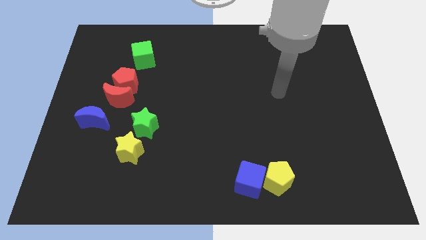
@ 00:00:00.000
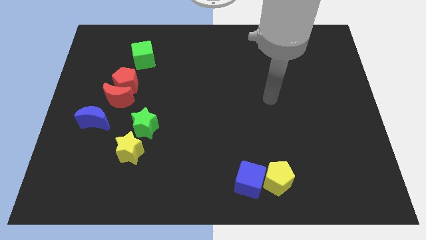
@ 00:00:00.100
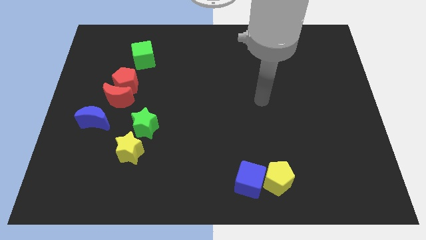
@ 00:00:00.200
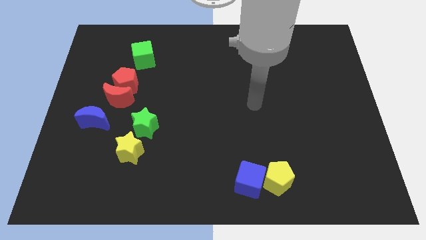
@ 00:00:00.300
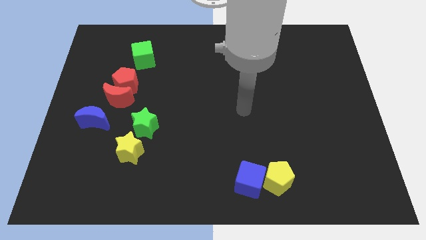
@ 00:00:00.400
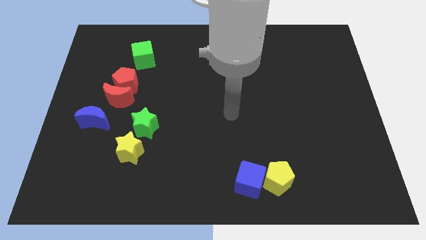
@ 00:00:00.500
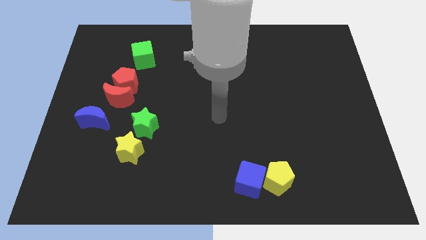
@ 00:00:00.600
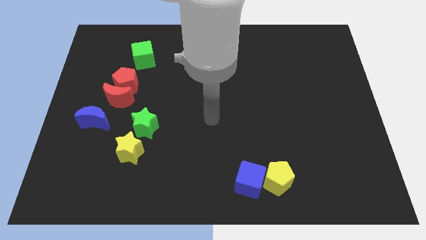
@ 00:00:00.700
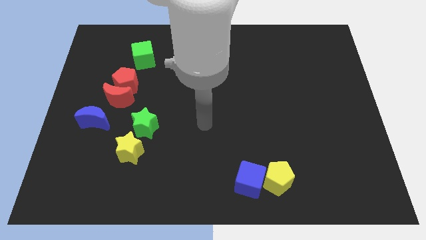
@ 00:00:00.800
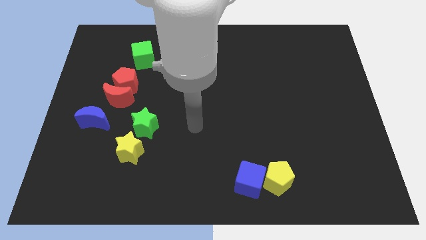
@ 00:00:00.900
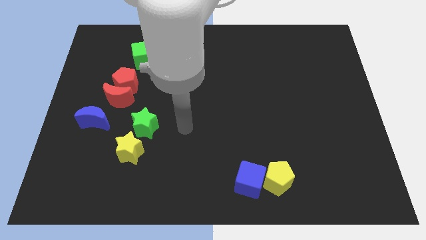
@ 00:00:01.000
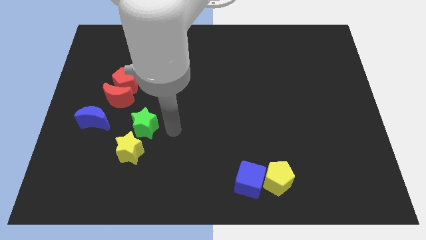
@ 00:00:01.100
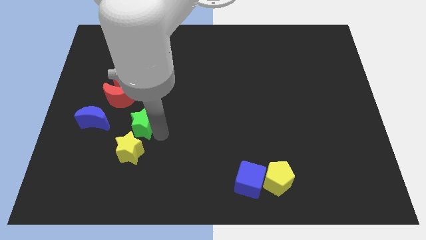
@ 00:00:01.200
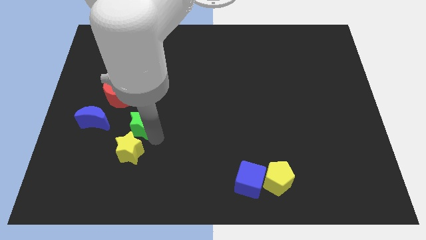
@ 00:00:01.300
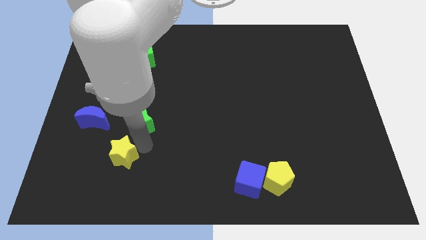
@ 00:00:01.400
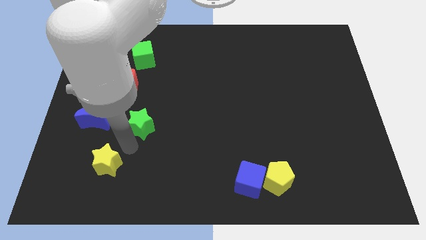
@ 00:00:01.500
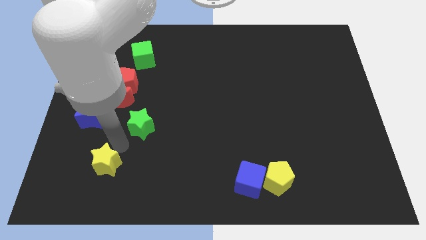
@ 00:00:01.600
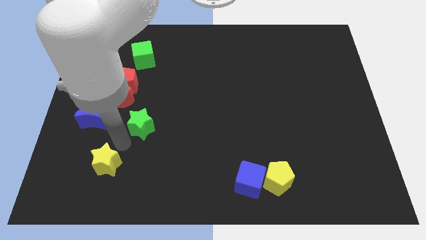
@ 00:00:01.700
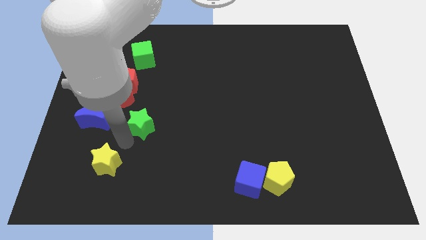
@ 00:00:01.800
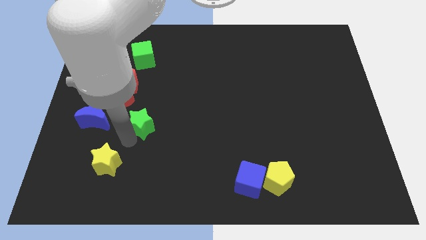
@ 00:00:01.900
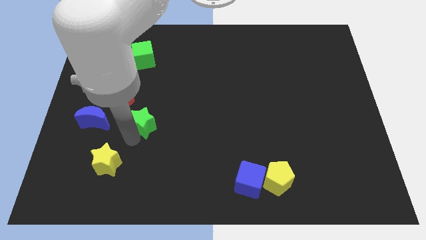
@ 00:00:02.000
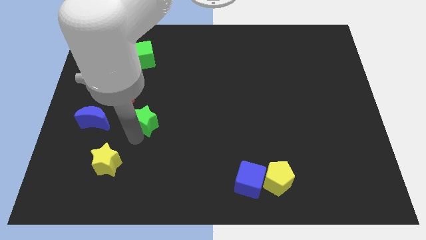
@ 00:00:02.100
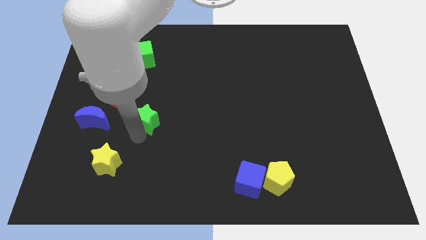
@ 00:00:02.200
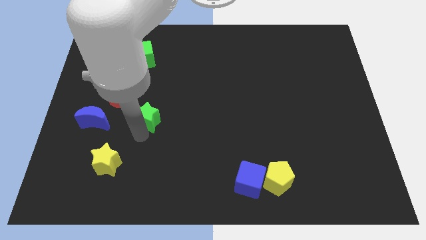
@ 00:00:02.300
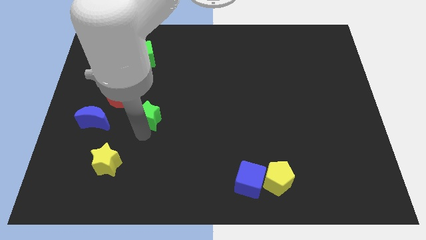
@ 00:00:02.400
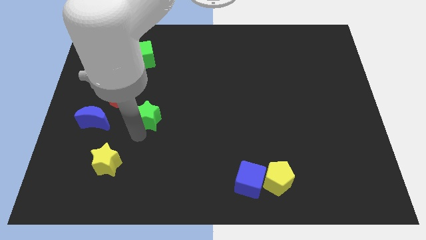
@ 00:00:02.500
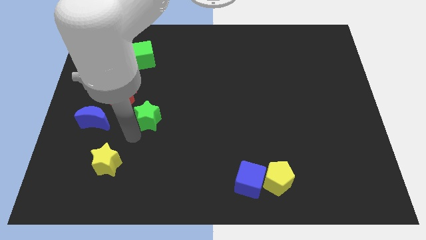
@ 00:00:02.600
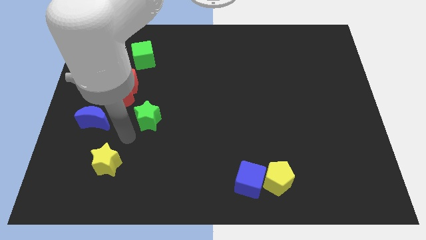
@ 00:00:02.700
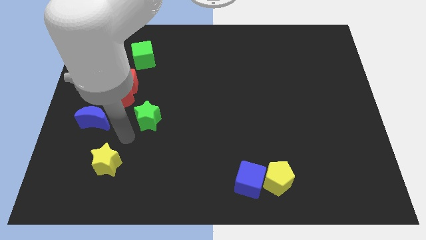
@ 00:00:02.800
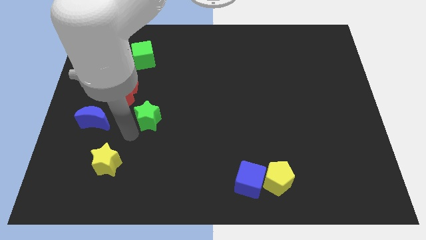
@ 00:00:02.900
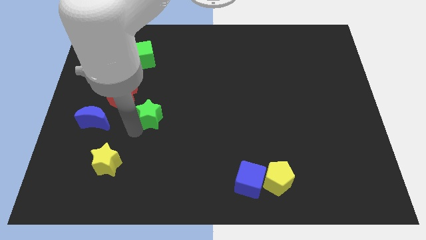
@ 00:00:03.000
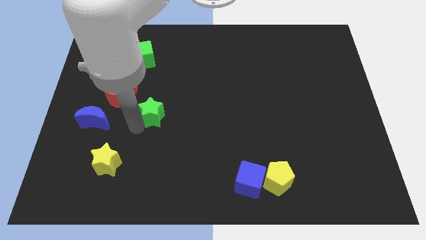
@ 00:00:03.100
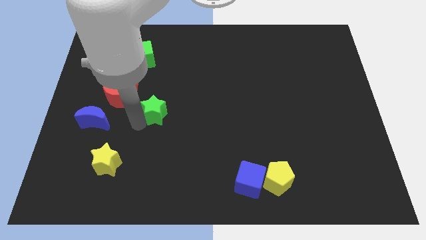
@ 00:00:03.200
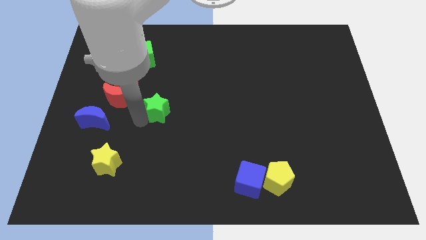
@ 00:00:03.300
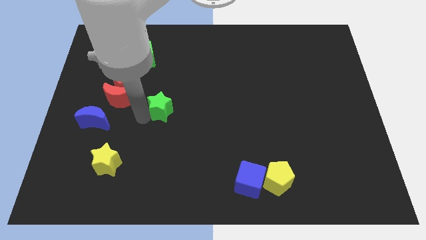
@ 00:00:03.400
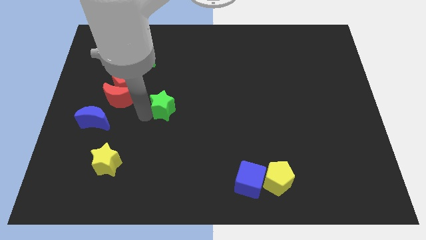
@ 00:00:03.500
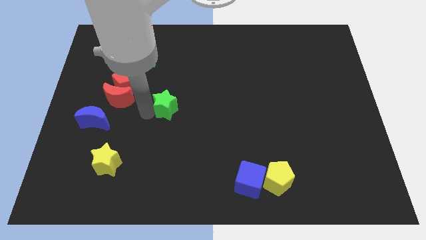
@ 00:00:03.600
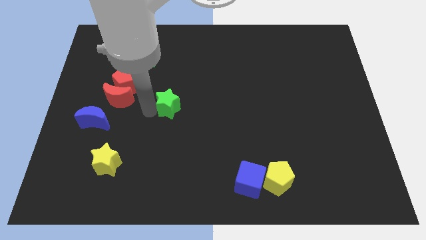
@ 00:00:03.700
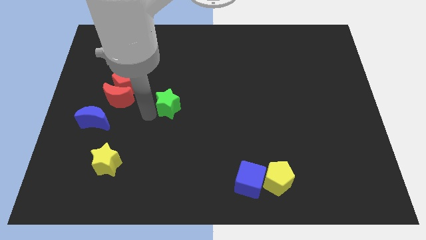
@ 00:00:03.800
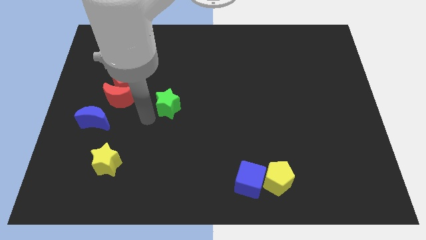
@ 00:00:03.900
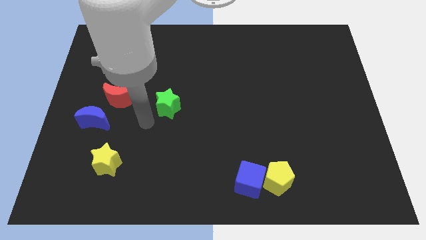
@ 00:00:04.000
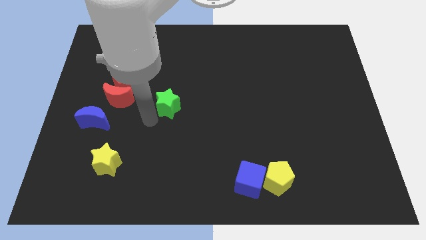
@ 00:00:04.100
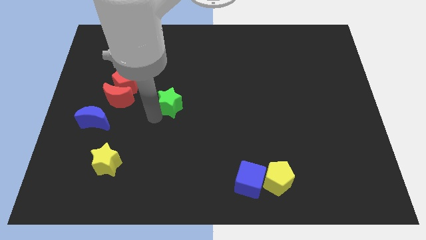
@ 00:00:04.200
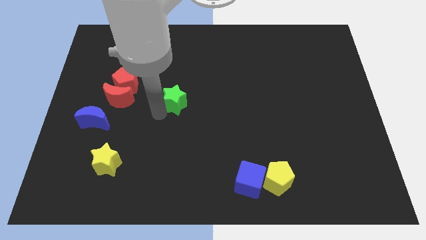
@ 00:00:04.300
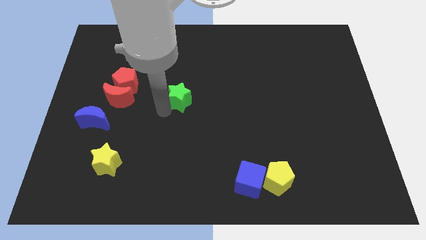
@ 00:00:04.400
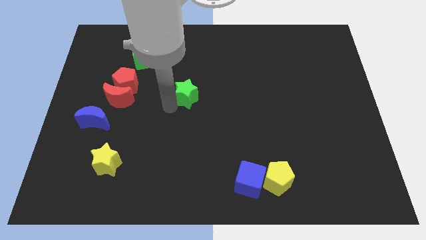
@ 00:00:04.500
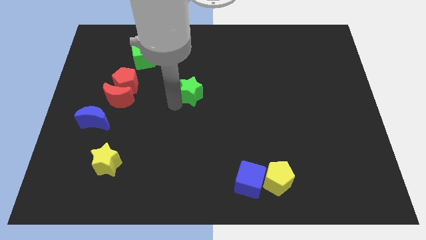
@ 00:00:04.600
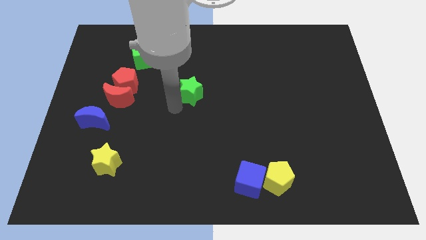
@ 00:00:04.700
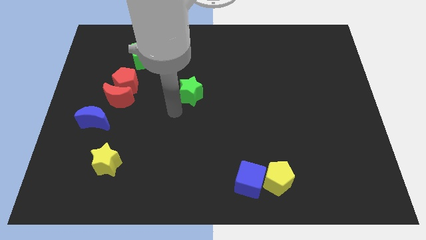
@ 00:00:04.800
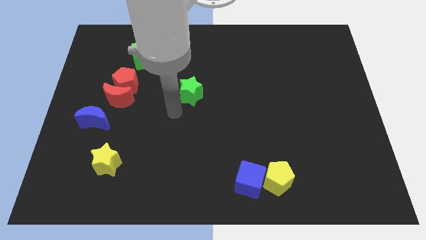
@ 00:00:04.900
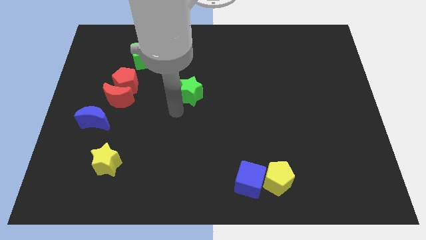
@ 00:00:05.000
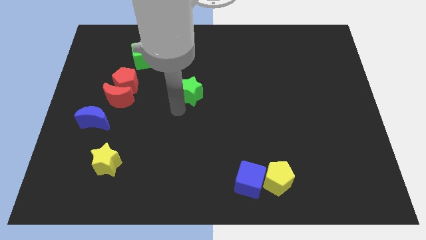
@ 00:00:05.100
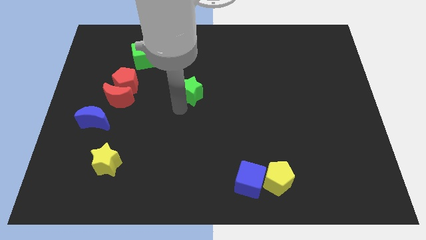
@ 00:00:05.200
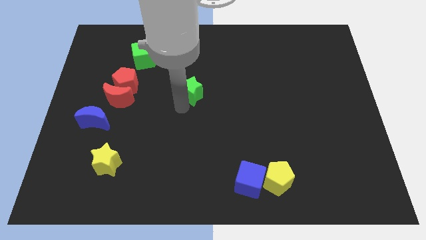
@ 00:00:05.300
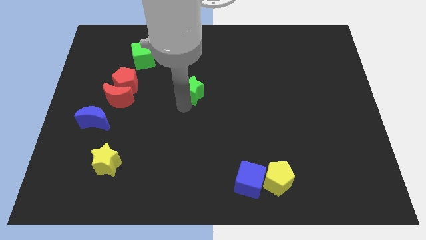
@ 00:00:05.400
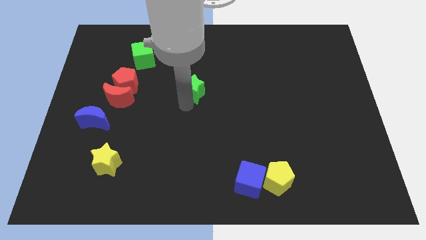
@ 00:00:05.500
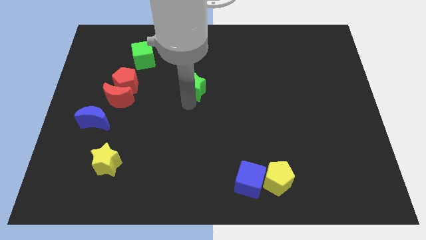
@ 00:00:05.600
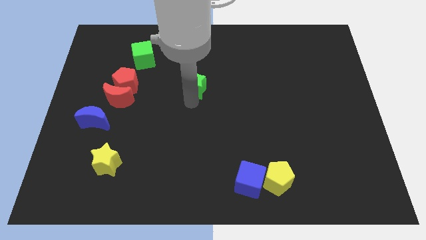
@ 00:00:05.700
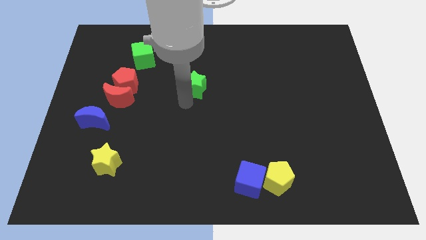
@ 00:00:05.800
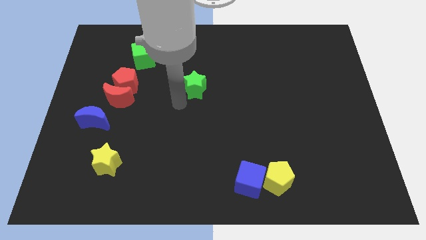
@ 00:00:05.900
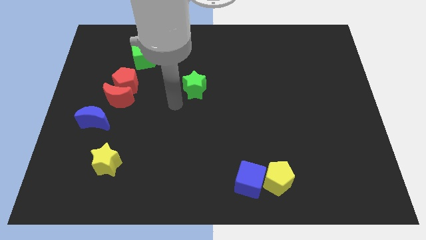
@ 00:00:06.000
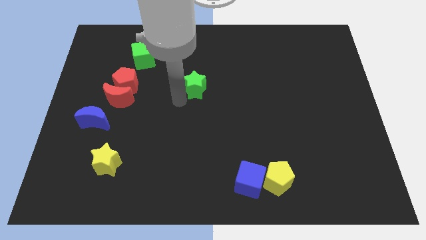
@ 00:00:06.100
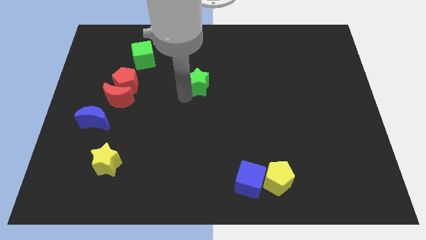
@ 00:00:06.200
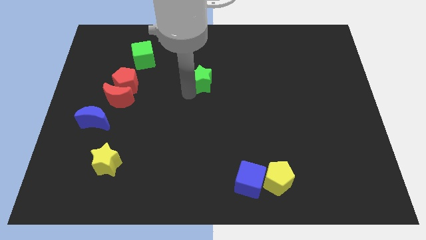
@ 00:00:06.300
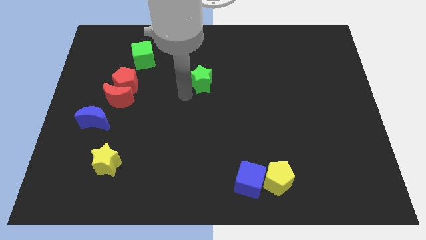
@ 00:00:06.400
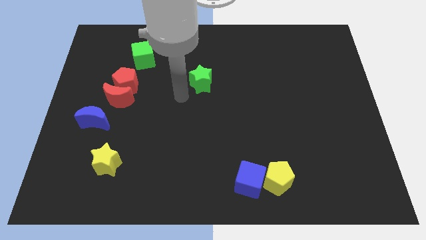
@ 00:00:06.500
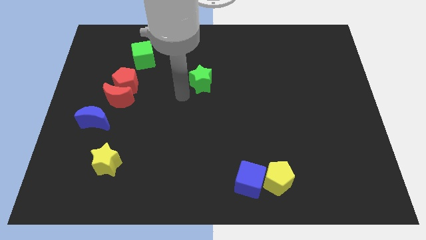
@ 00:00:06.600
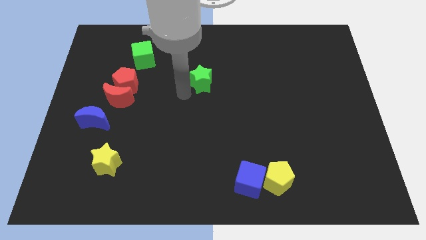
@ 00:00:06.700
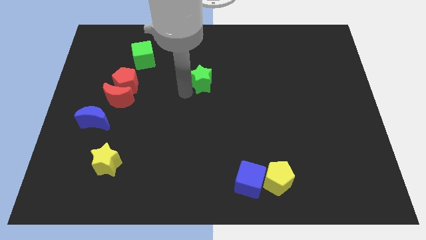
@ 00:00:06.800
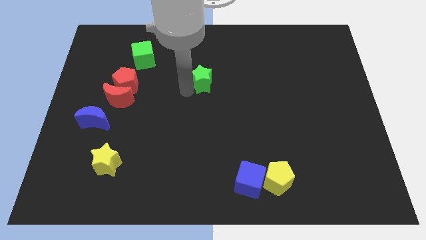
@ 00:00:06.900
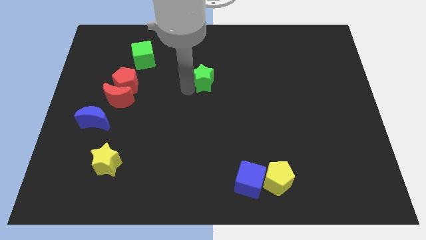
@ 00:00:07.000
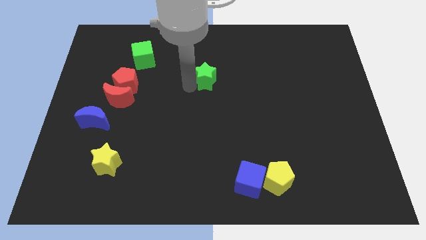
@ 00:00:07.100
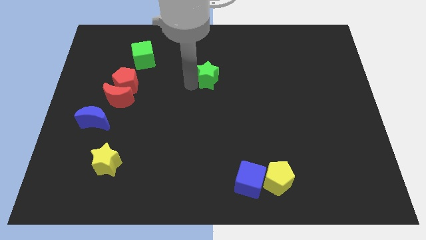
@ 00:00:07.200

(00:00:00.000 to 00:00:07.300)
slide the green star up and right diagonally

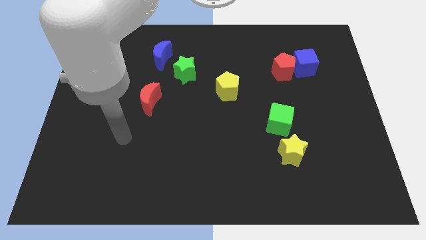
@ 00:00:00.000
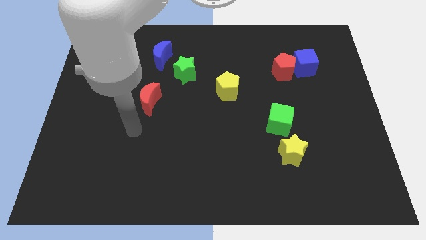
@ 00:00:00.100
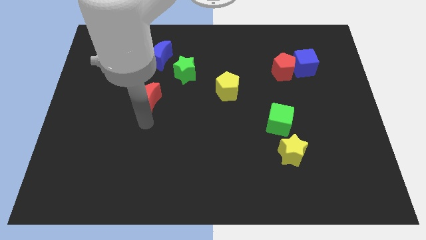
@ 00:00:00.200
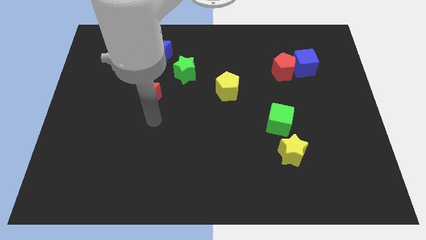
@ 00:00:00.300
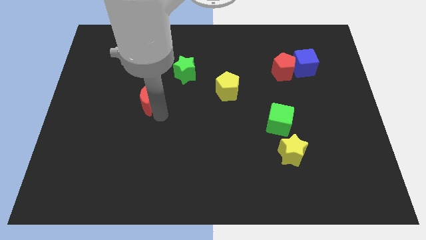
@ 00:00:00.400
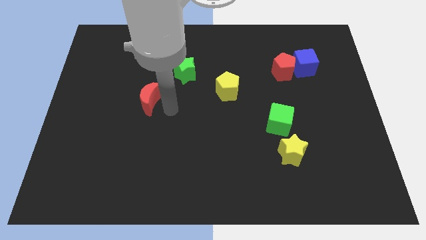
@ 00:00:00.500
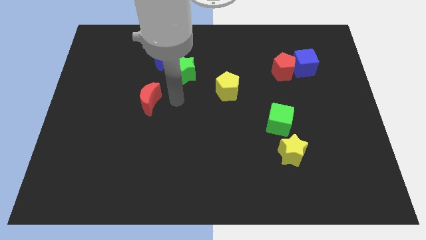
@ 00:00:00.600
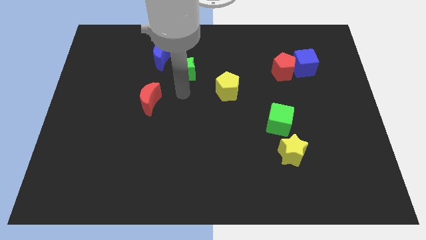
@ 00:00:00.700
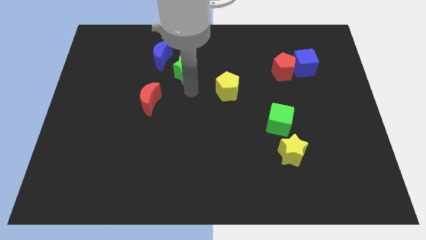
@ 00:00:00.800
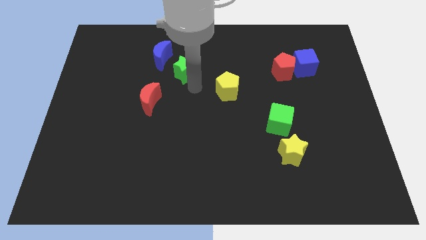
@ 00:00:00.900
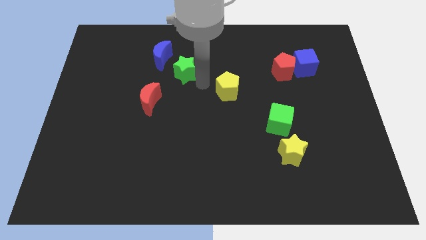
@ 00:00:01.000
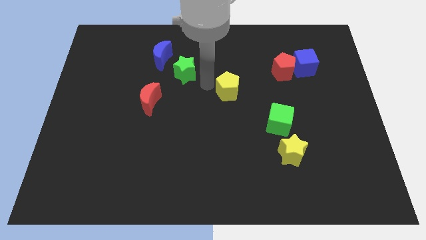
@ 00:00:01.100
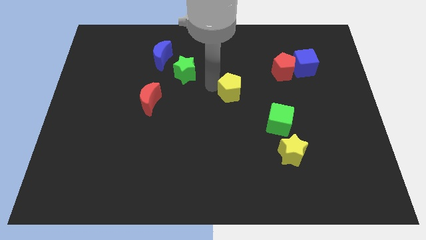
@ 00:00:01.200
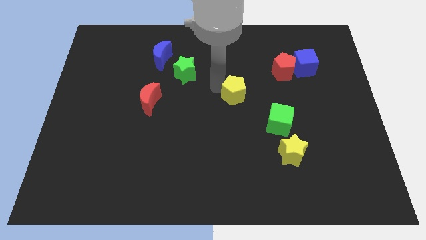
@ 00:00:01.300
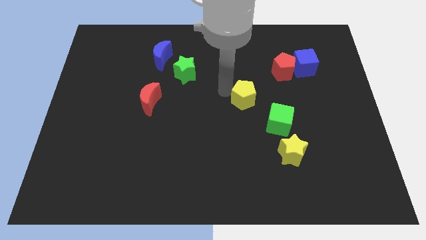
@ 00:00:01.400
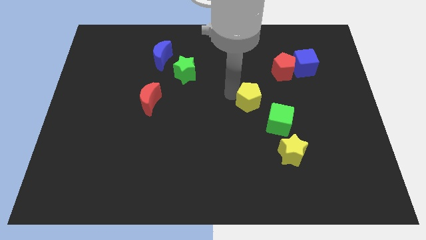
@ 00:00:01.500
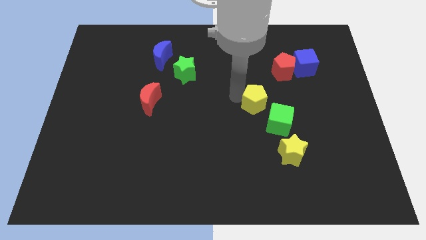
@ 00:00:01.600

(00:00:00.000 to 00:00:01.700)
move the yellow pentagon downwards and right diagonally slightly
